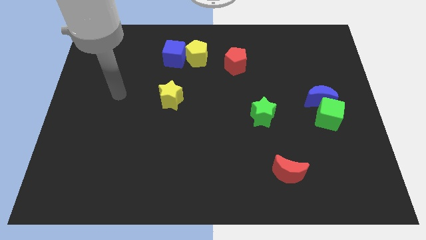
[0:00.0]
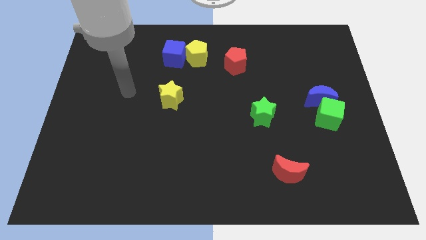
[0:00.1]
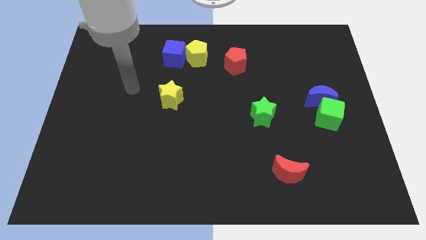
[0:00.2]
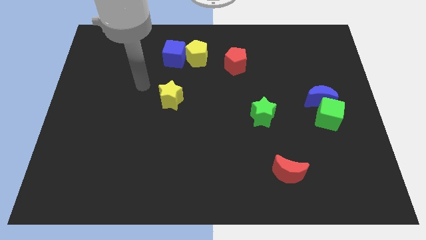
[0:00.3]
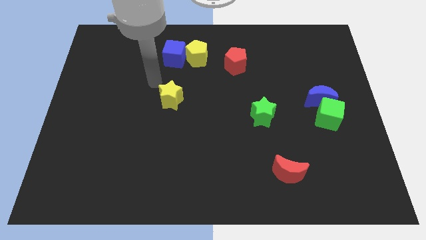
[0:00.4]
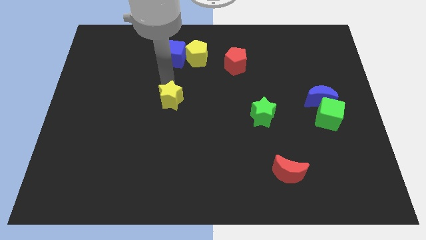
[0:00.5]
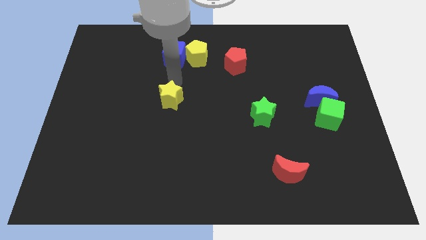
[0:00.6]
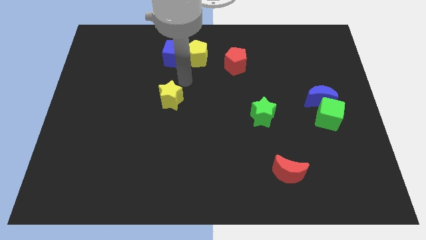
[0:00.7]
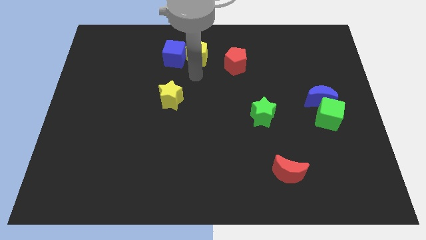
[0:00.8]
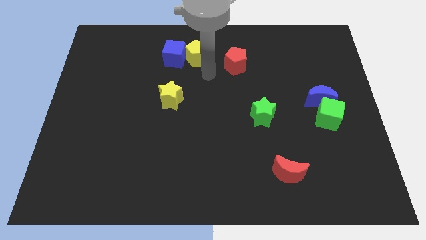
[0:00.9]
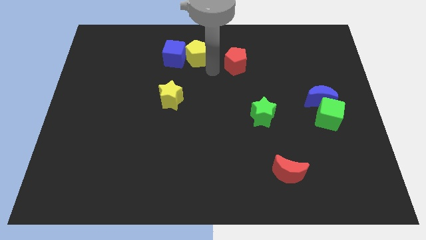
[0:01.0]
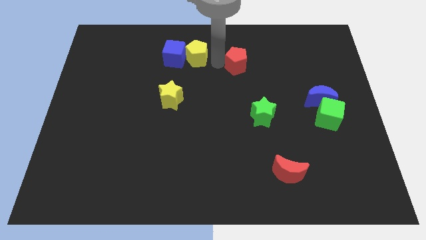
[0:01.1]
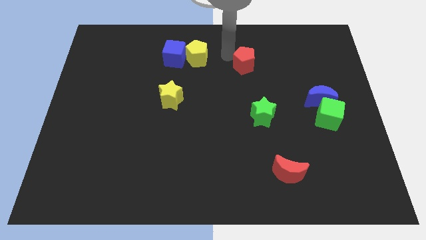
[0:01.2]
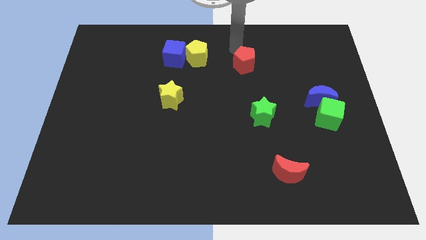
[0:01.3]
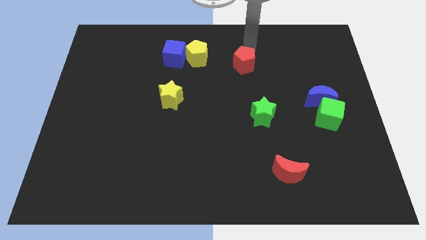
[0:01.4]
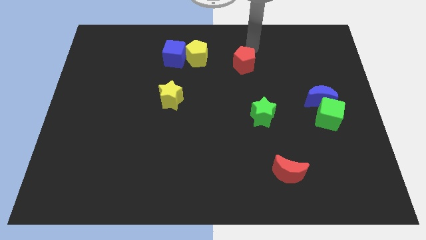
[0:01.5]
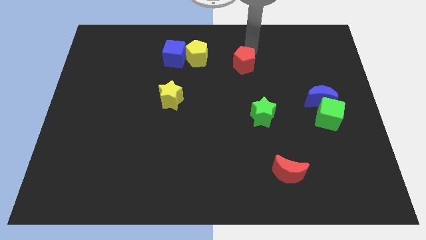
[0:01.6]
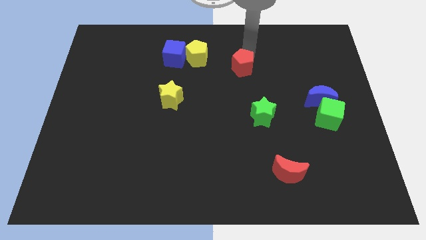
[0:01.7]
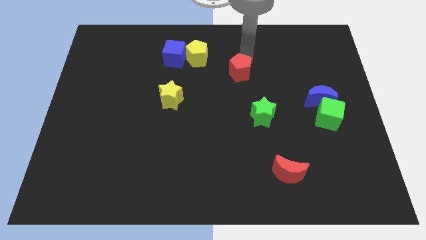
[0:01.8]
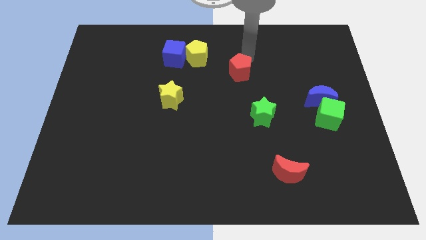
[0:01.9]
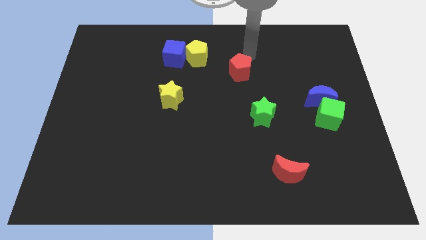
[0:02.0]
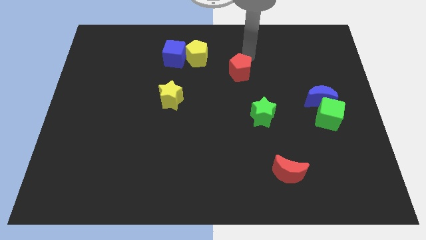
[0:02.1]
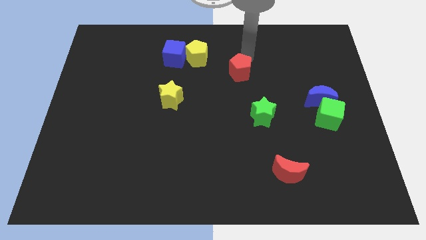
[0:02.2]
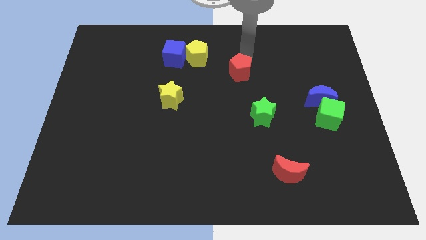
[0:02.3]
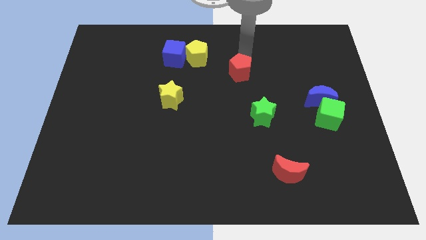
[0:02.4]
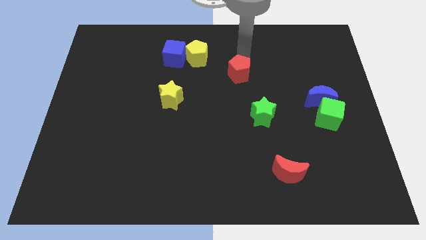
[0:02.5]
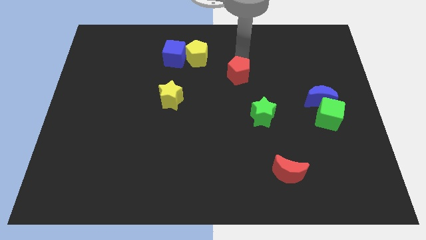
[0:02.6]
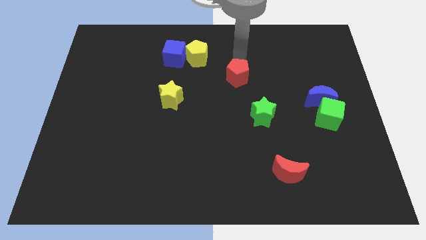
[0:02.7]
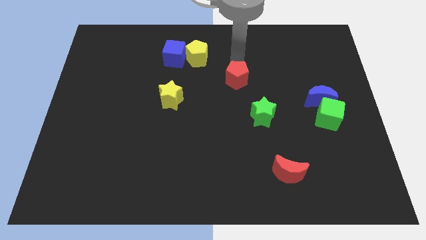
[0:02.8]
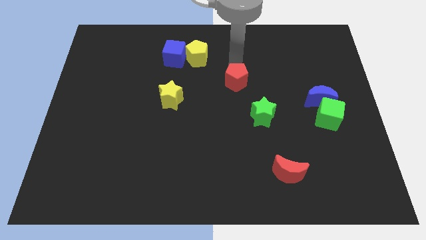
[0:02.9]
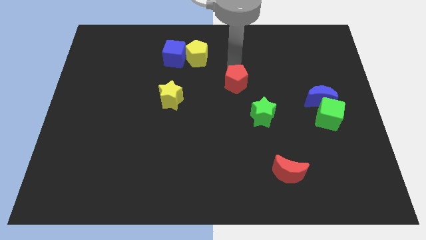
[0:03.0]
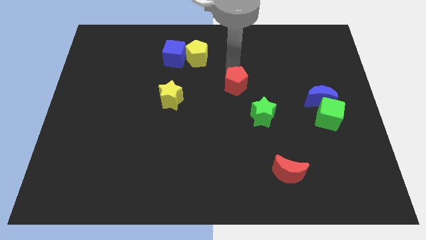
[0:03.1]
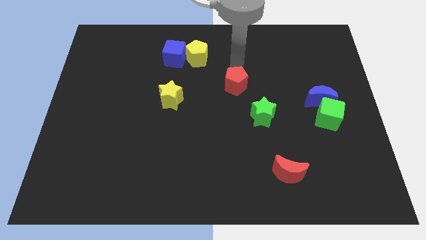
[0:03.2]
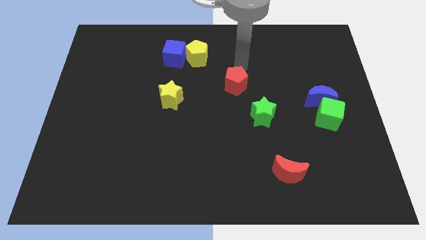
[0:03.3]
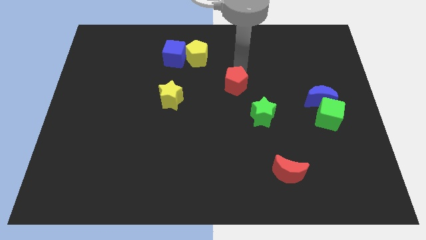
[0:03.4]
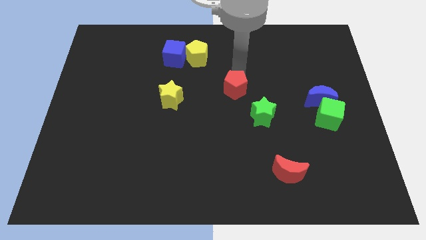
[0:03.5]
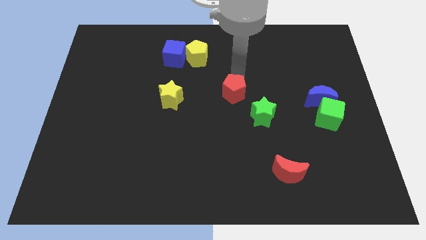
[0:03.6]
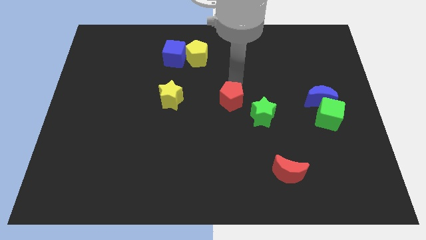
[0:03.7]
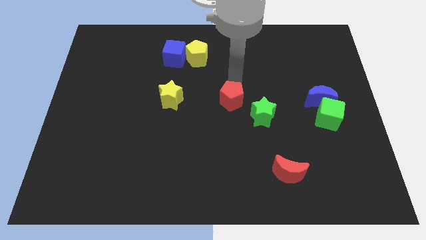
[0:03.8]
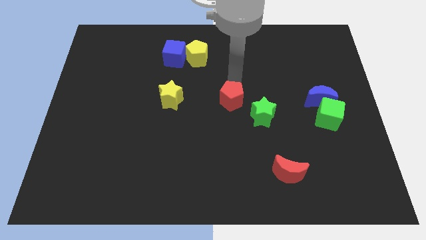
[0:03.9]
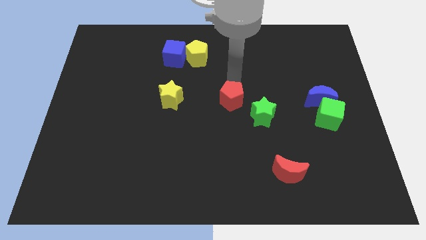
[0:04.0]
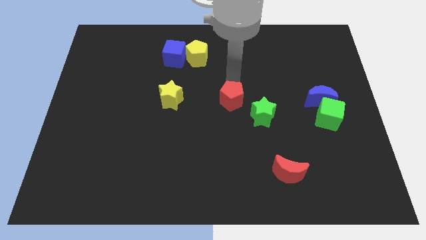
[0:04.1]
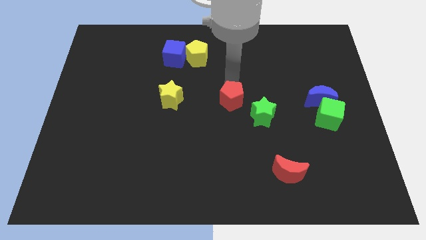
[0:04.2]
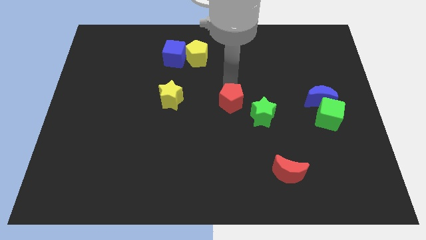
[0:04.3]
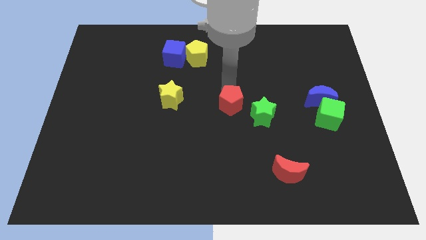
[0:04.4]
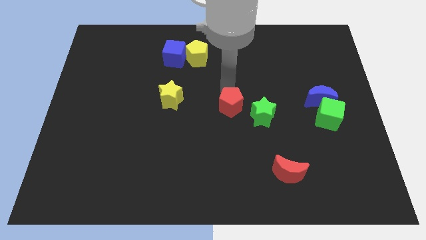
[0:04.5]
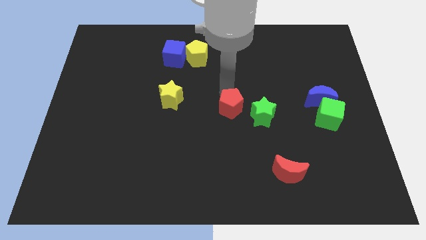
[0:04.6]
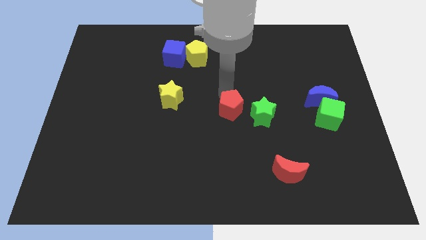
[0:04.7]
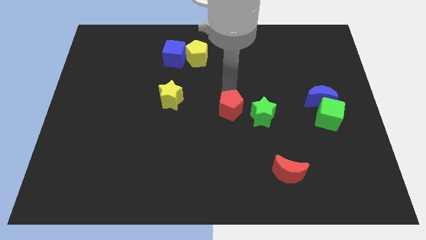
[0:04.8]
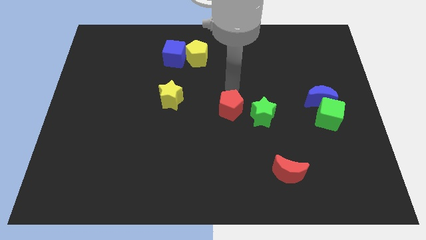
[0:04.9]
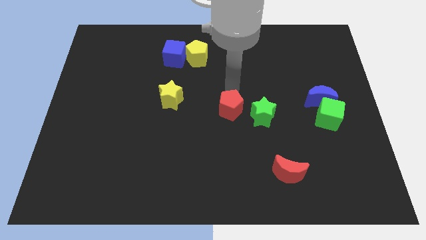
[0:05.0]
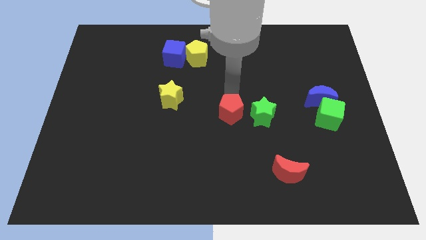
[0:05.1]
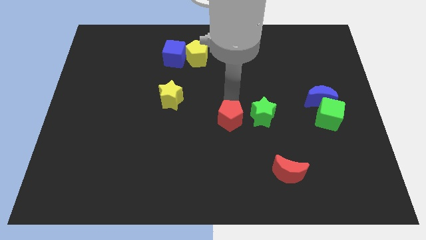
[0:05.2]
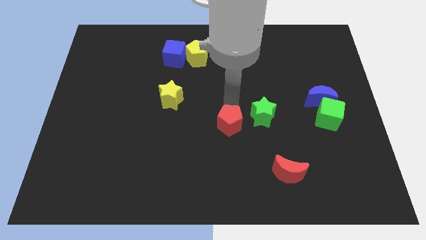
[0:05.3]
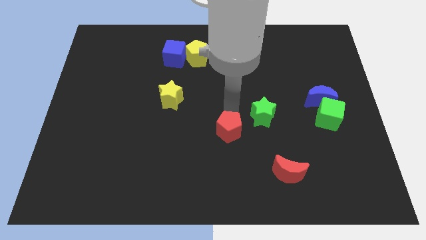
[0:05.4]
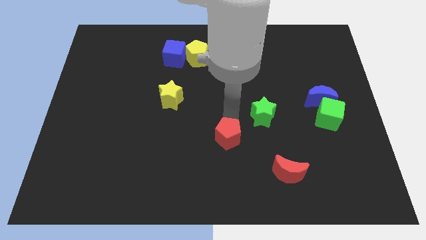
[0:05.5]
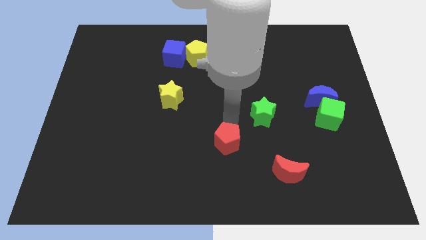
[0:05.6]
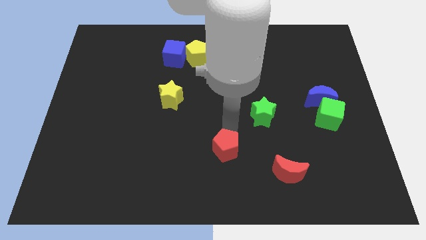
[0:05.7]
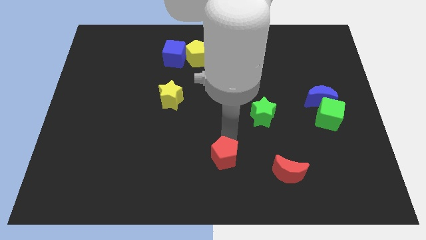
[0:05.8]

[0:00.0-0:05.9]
push the red pentagon to the bottom

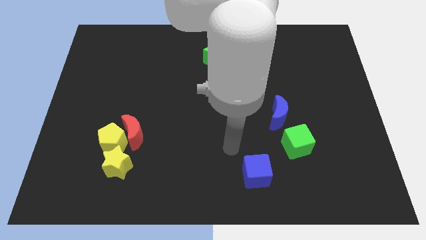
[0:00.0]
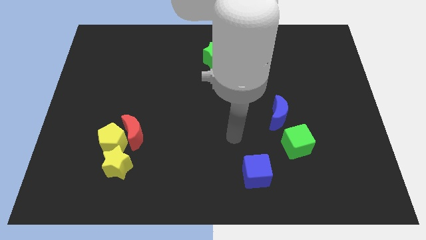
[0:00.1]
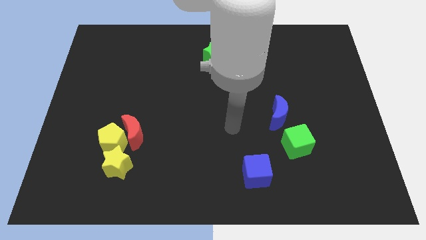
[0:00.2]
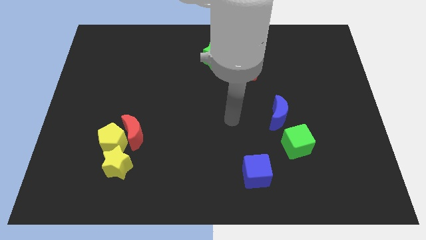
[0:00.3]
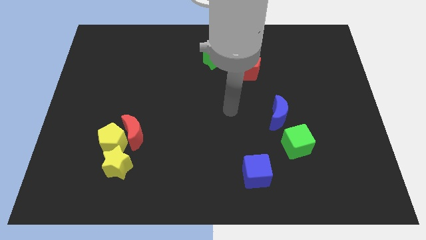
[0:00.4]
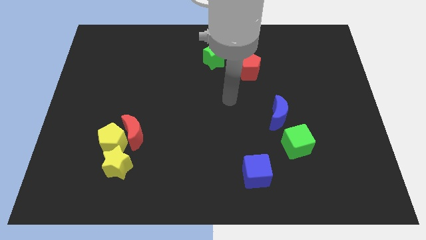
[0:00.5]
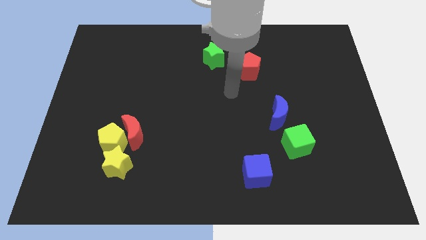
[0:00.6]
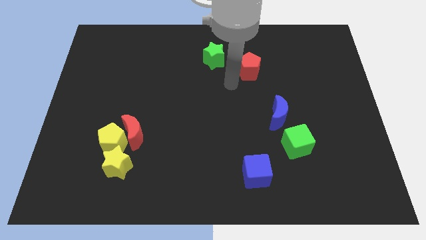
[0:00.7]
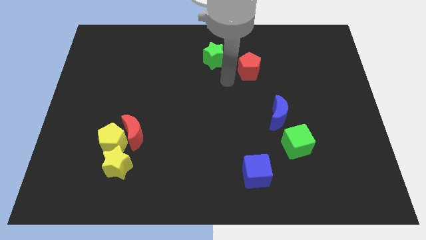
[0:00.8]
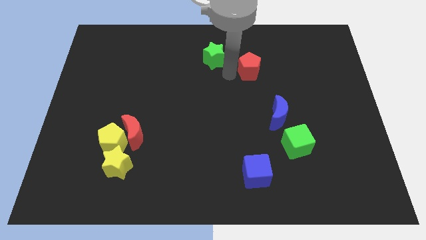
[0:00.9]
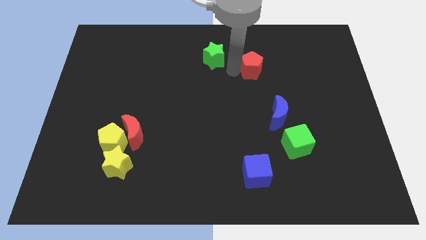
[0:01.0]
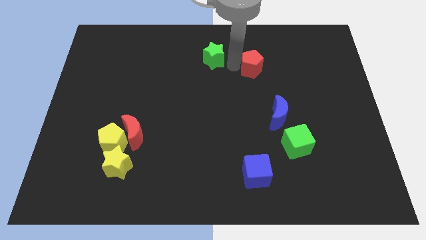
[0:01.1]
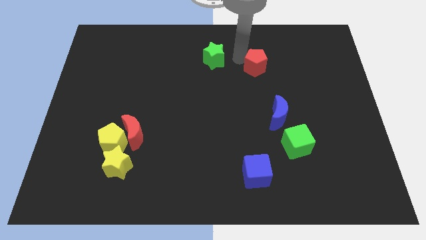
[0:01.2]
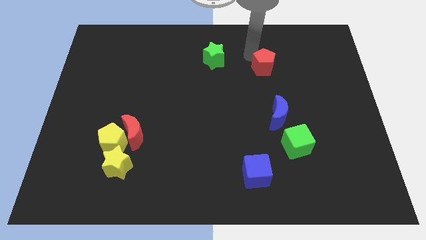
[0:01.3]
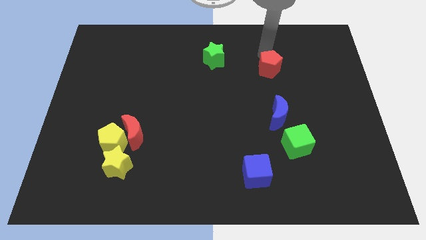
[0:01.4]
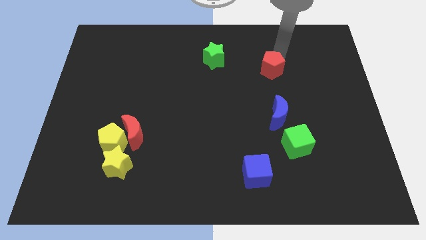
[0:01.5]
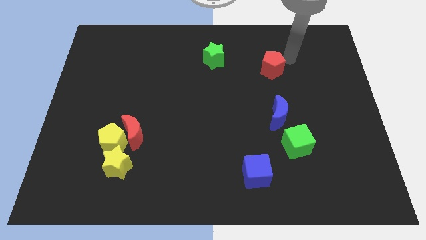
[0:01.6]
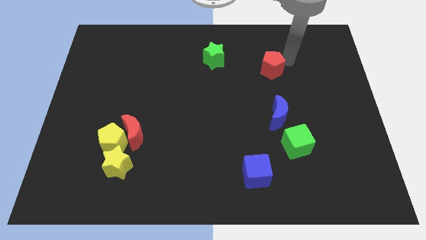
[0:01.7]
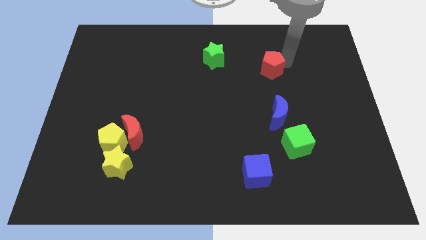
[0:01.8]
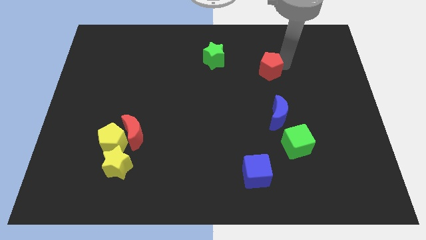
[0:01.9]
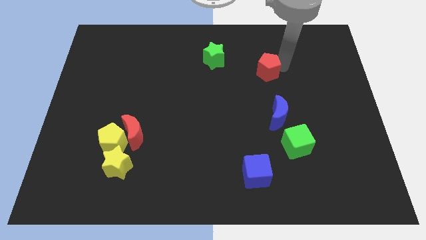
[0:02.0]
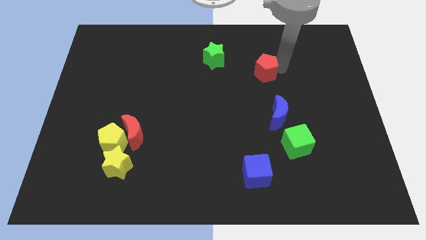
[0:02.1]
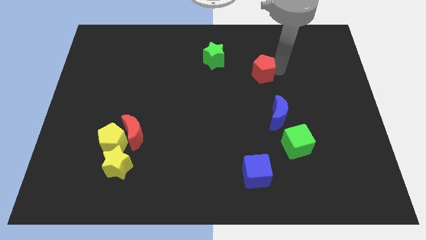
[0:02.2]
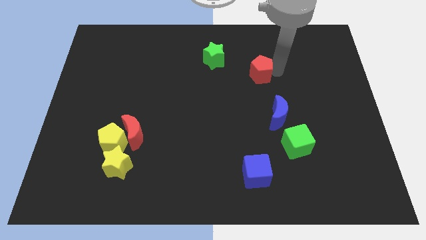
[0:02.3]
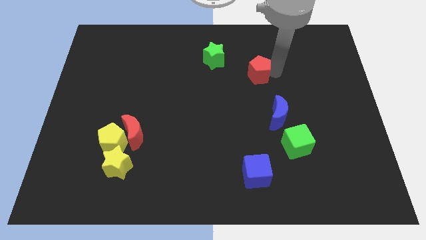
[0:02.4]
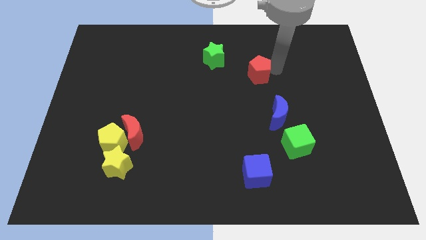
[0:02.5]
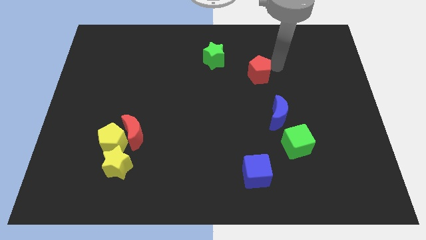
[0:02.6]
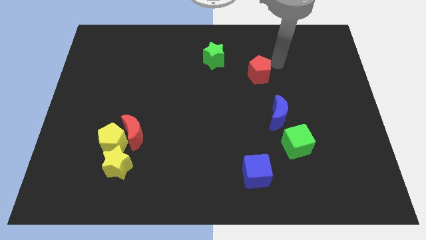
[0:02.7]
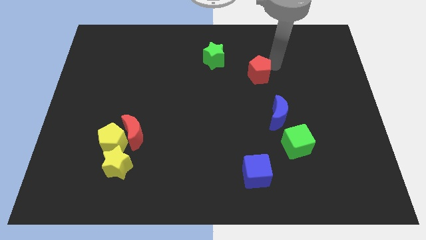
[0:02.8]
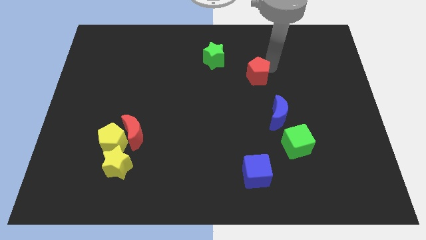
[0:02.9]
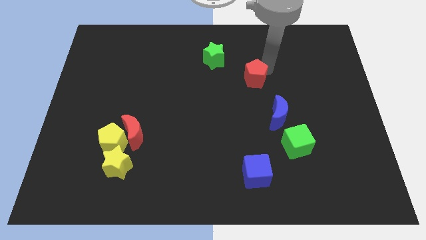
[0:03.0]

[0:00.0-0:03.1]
slide the red pentagon to the middle
